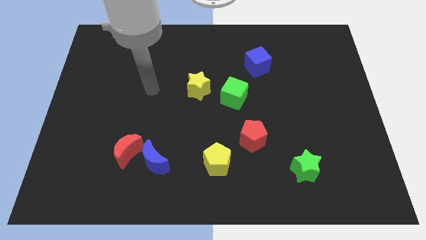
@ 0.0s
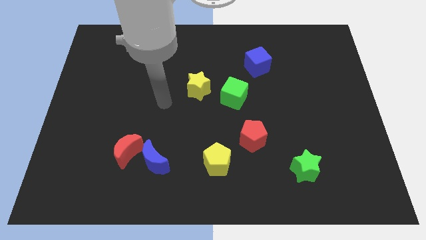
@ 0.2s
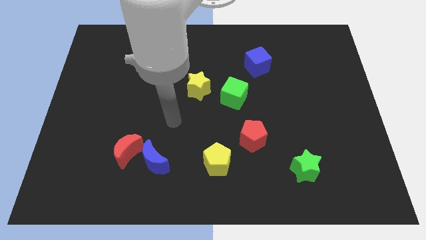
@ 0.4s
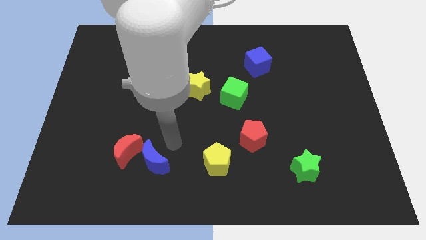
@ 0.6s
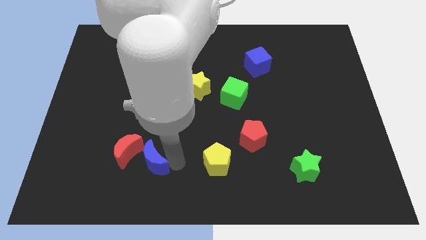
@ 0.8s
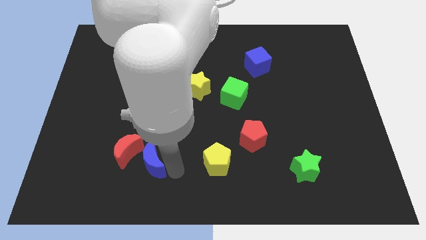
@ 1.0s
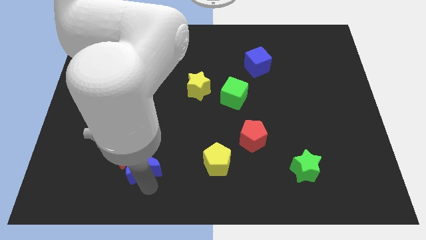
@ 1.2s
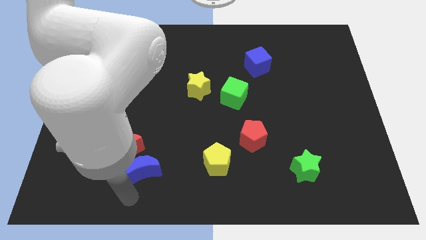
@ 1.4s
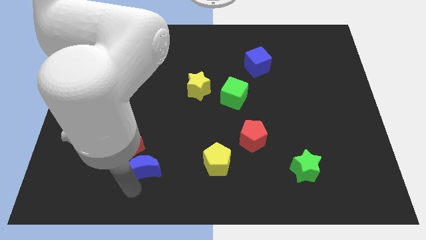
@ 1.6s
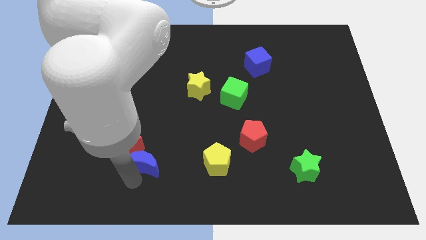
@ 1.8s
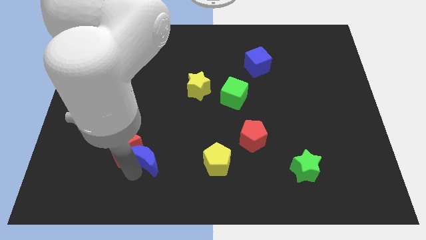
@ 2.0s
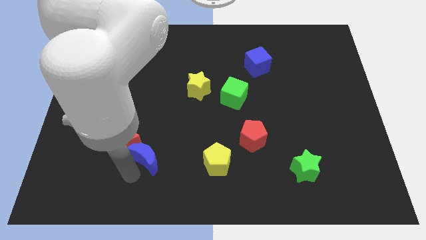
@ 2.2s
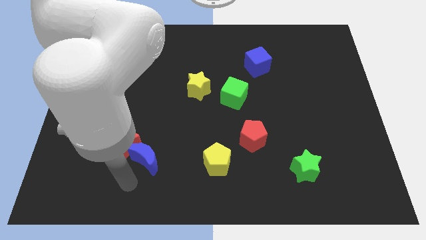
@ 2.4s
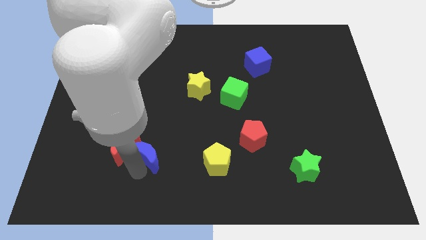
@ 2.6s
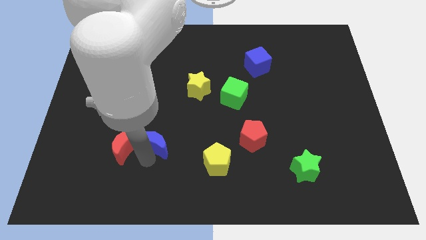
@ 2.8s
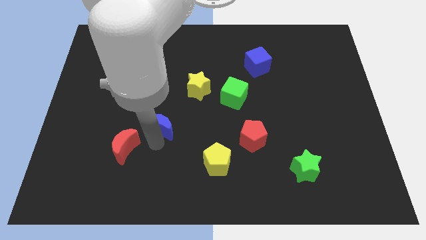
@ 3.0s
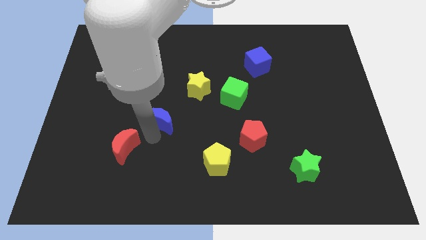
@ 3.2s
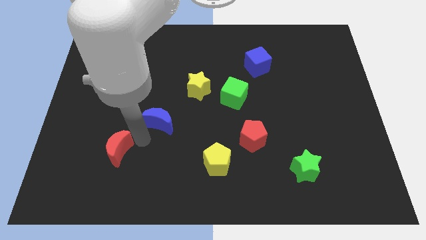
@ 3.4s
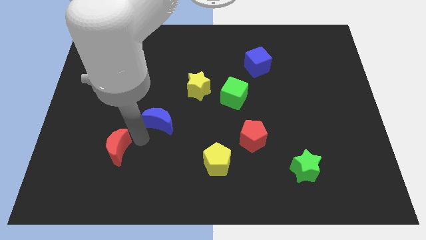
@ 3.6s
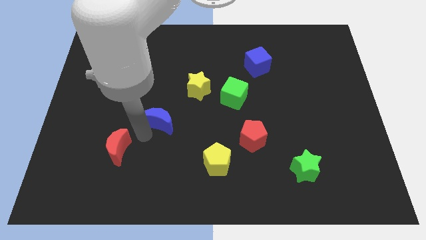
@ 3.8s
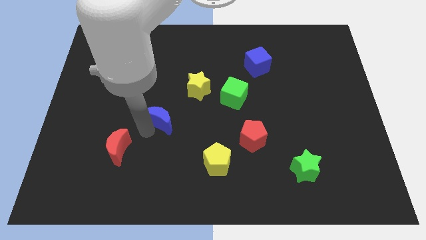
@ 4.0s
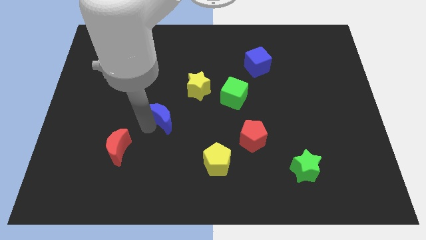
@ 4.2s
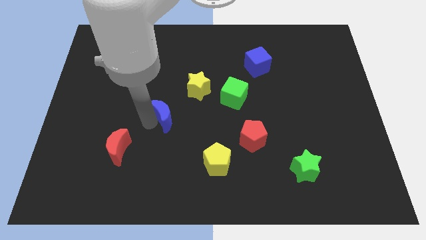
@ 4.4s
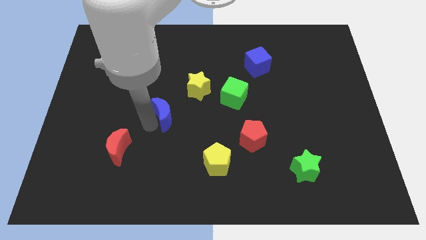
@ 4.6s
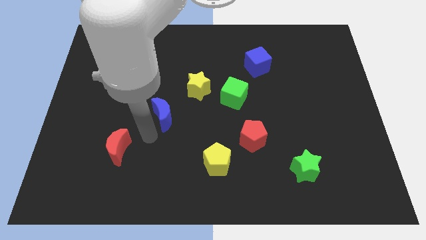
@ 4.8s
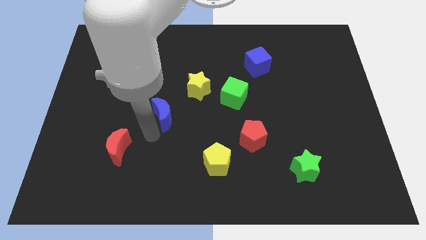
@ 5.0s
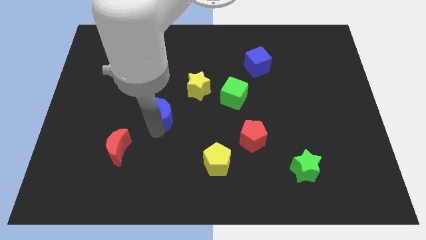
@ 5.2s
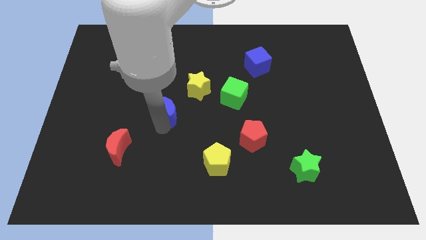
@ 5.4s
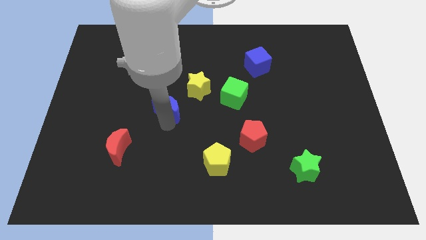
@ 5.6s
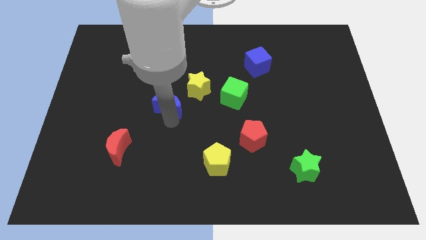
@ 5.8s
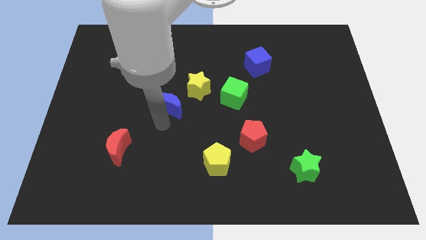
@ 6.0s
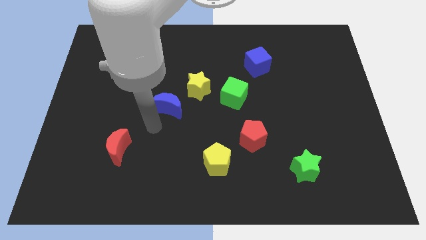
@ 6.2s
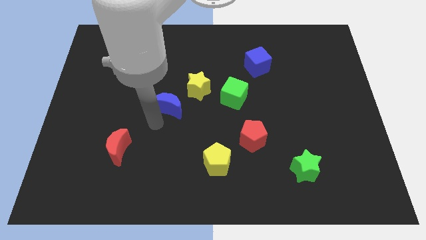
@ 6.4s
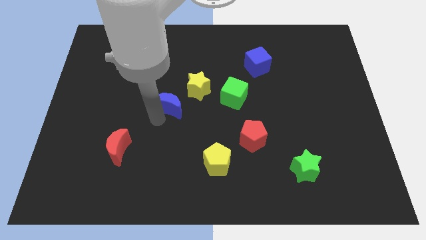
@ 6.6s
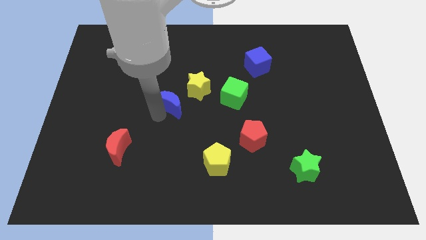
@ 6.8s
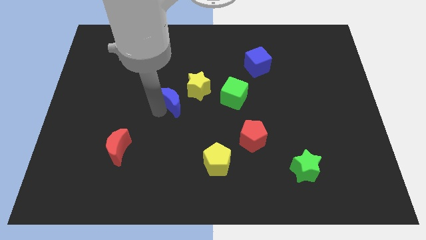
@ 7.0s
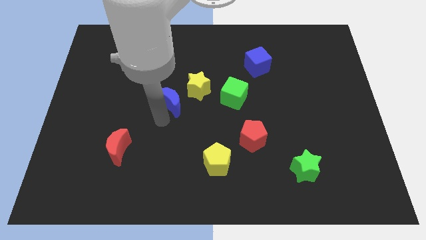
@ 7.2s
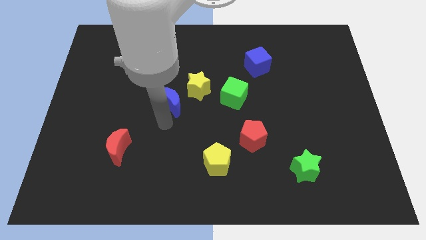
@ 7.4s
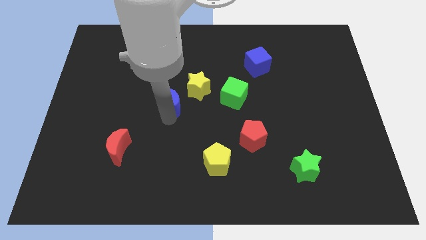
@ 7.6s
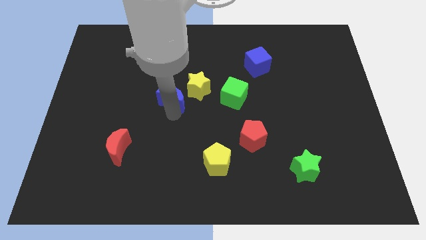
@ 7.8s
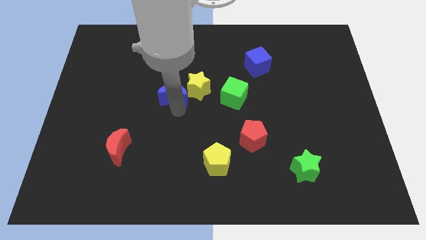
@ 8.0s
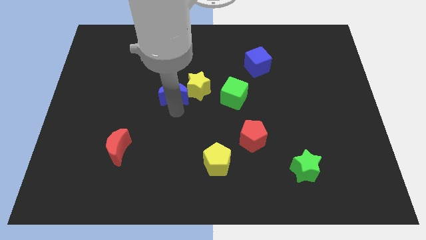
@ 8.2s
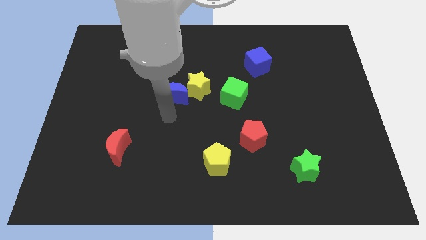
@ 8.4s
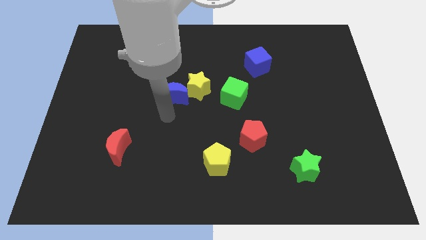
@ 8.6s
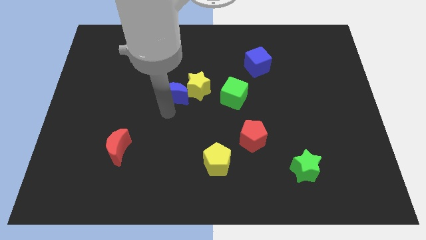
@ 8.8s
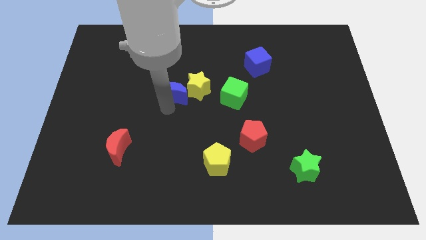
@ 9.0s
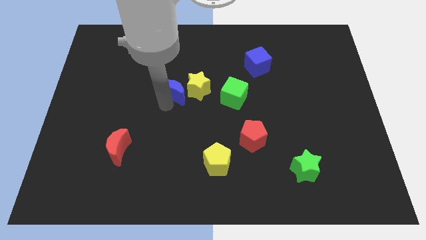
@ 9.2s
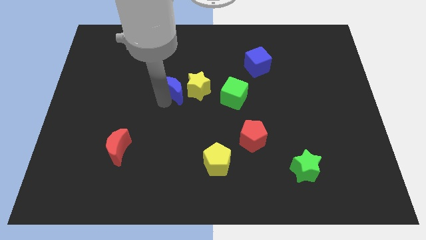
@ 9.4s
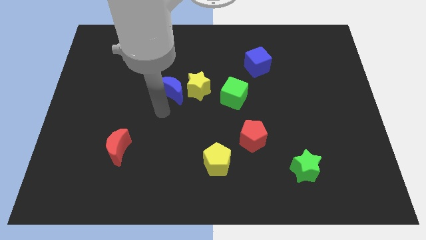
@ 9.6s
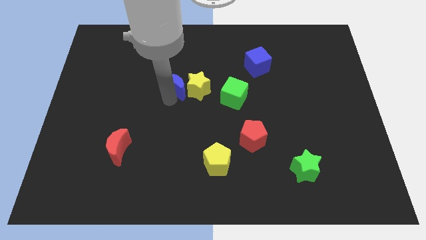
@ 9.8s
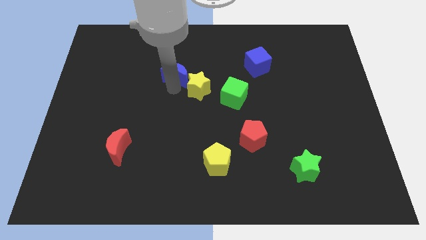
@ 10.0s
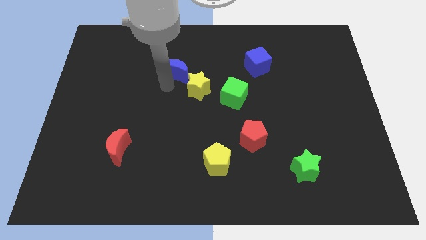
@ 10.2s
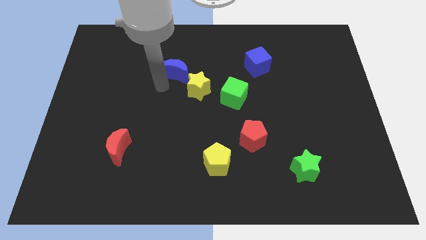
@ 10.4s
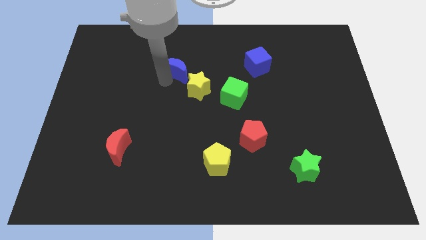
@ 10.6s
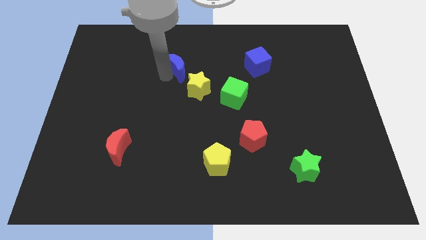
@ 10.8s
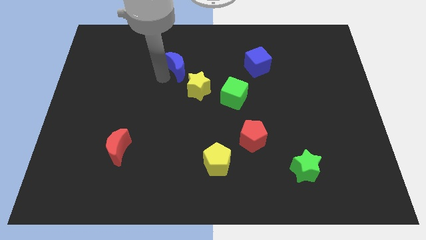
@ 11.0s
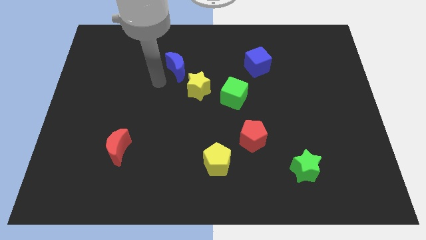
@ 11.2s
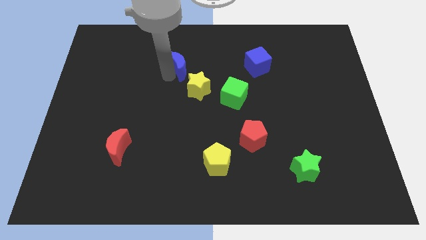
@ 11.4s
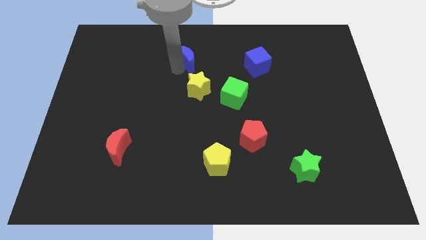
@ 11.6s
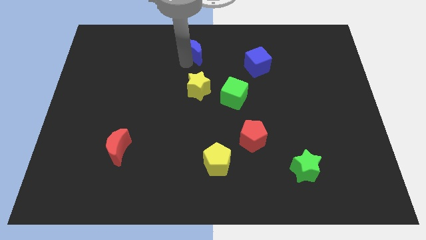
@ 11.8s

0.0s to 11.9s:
slide the blue moon to the towards your base
